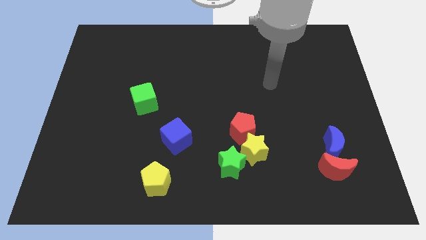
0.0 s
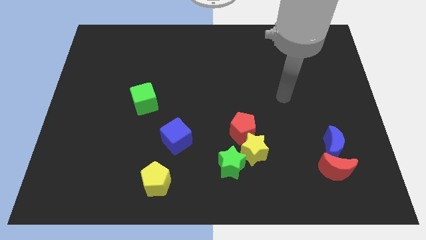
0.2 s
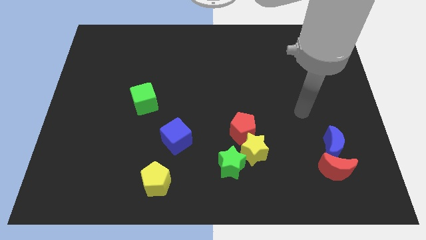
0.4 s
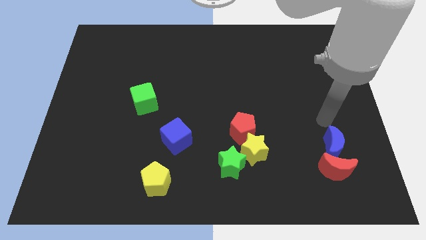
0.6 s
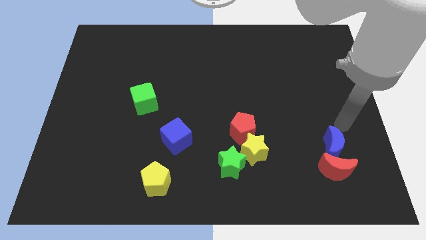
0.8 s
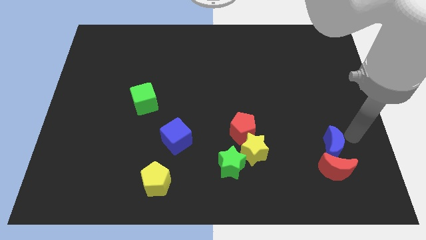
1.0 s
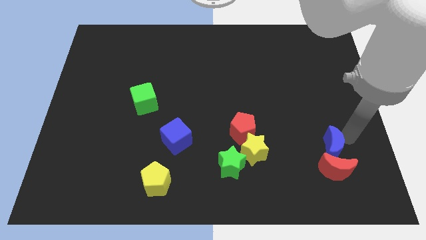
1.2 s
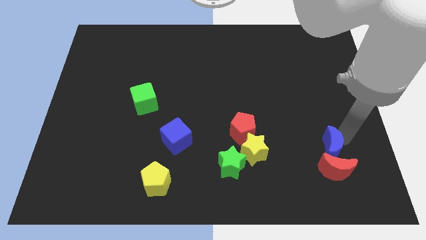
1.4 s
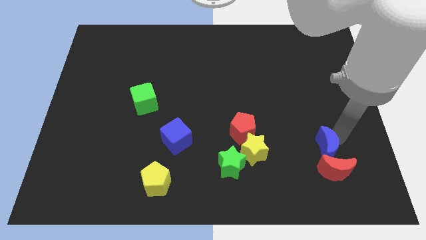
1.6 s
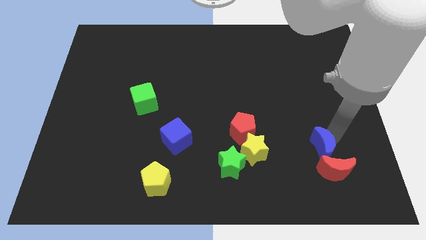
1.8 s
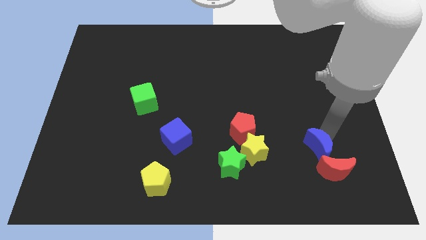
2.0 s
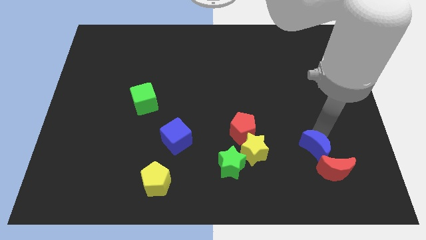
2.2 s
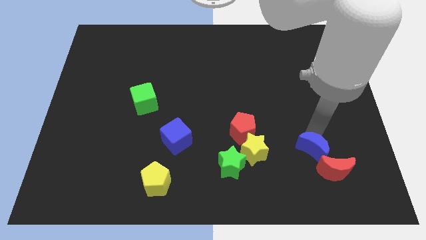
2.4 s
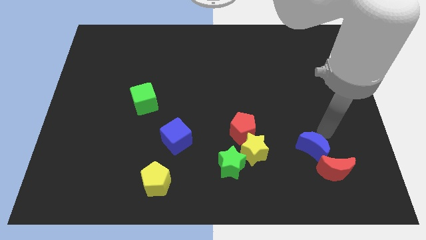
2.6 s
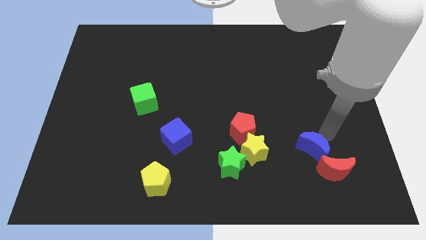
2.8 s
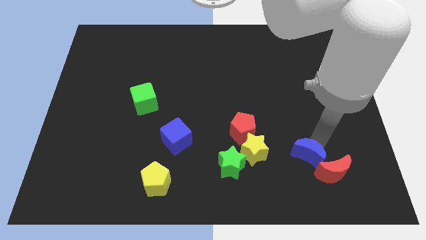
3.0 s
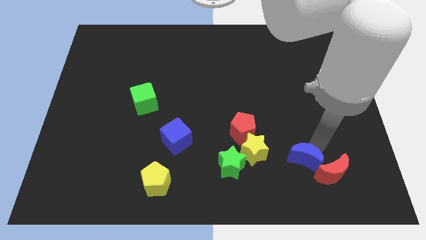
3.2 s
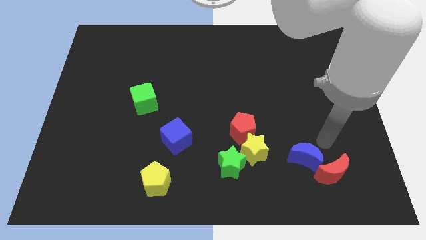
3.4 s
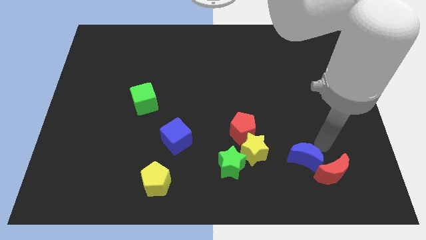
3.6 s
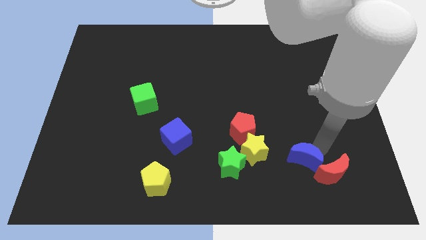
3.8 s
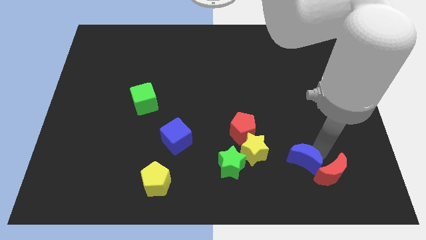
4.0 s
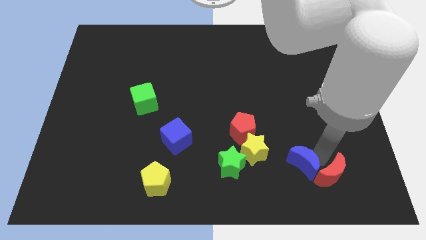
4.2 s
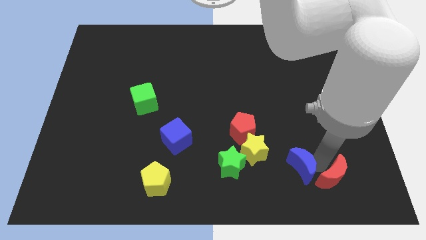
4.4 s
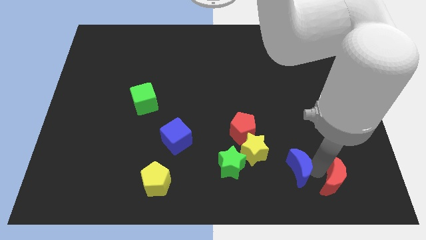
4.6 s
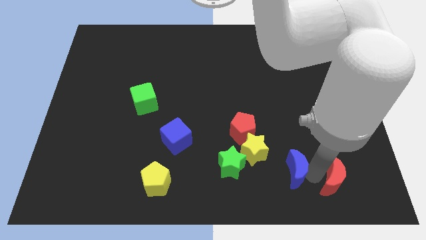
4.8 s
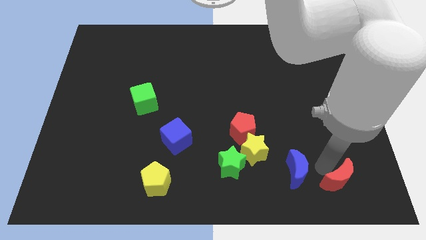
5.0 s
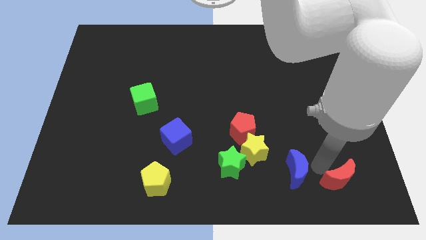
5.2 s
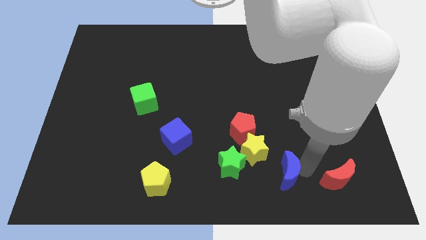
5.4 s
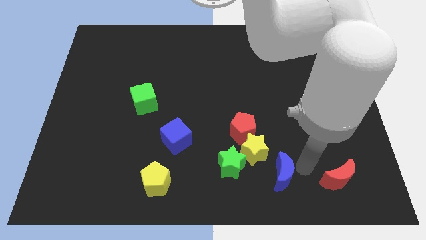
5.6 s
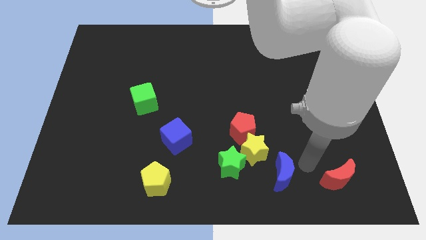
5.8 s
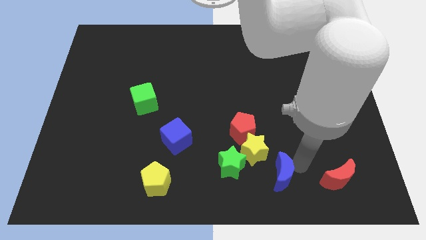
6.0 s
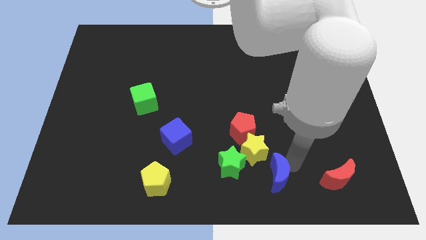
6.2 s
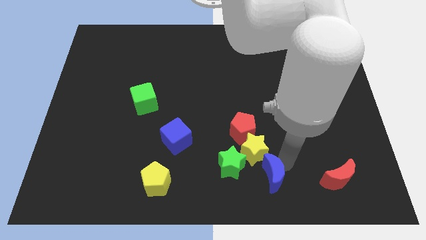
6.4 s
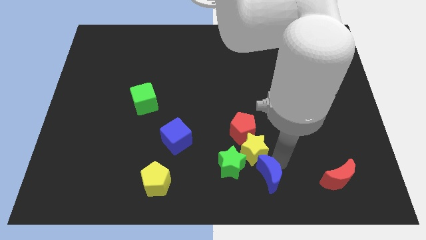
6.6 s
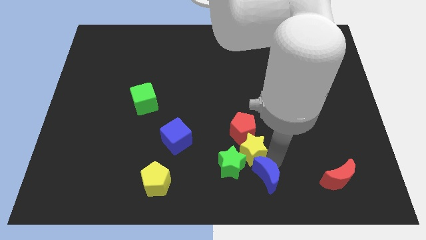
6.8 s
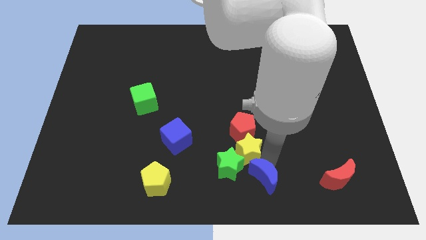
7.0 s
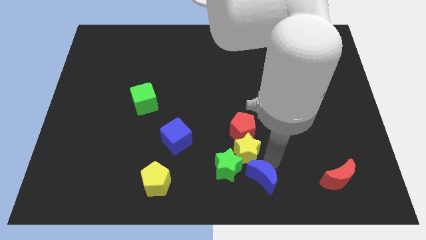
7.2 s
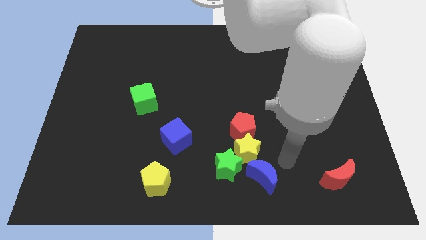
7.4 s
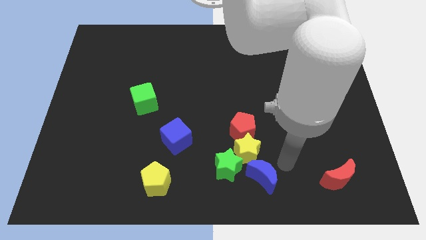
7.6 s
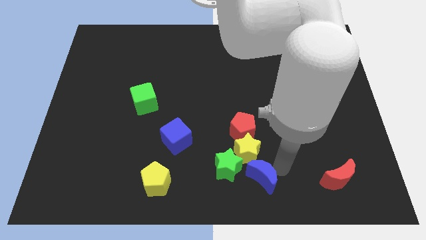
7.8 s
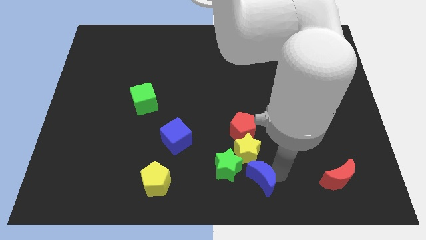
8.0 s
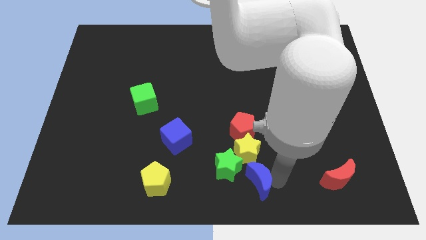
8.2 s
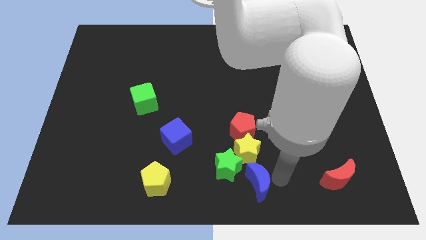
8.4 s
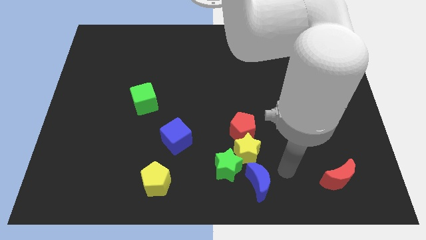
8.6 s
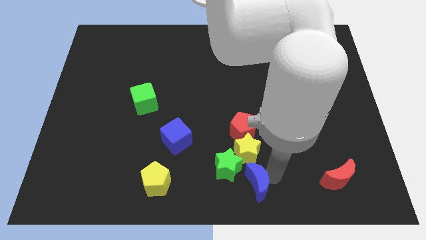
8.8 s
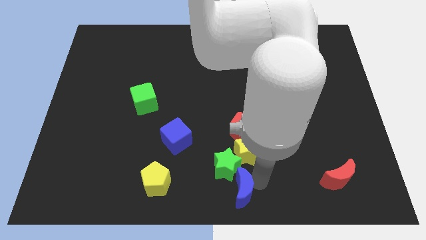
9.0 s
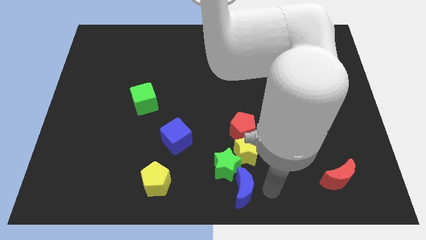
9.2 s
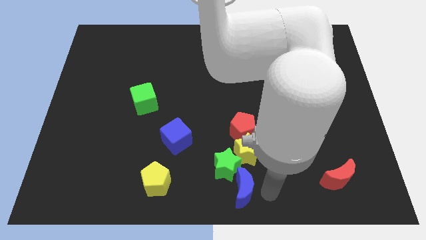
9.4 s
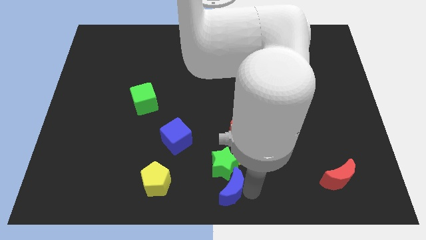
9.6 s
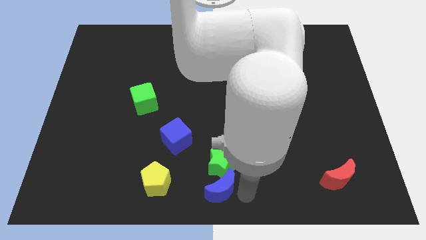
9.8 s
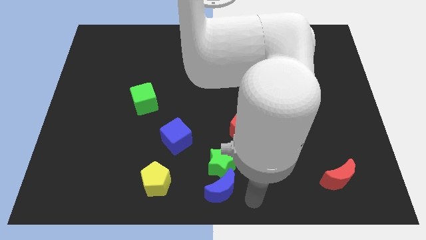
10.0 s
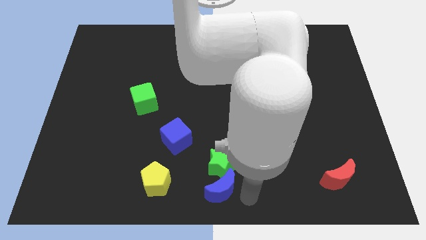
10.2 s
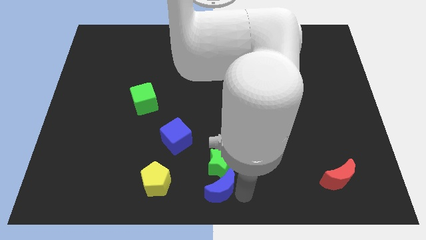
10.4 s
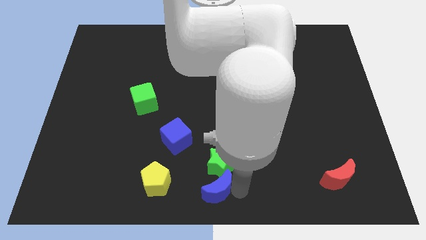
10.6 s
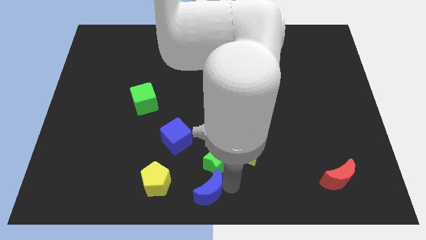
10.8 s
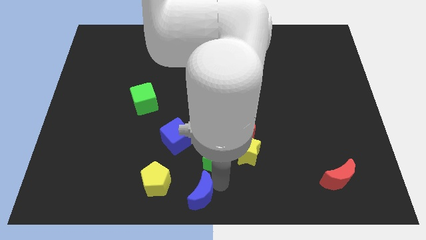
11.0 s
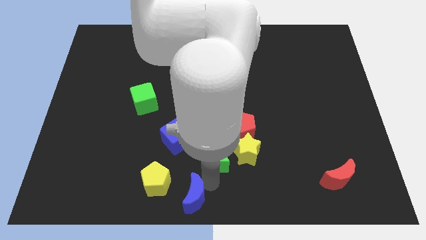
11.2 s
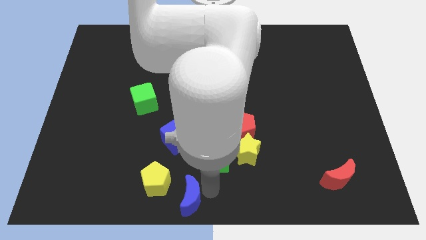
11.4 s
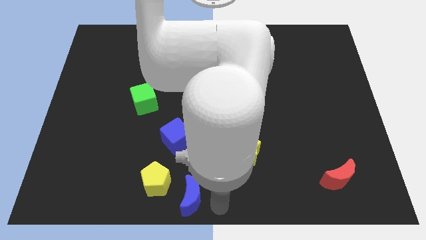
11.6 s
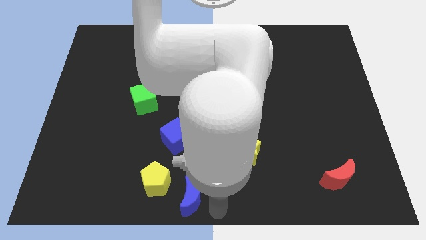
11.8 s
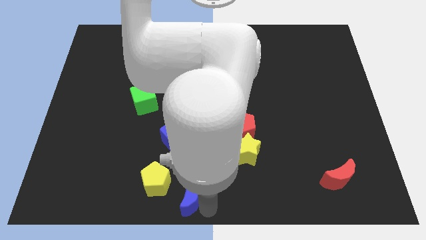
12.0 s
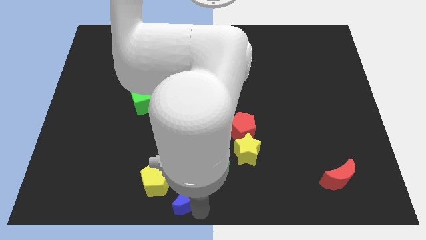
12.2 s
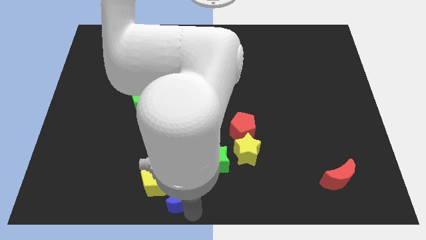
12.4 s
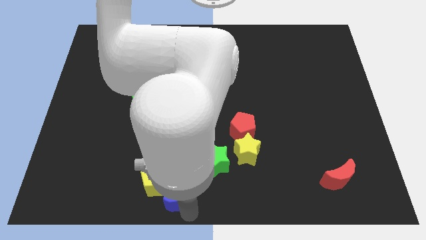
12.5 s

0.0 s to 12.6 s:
put the blue moon close to the yellow pentagon

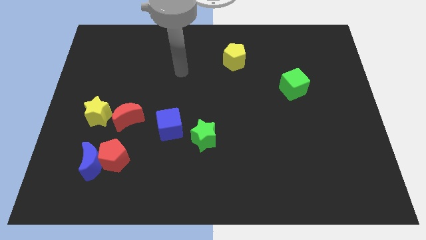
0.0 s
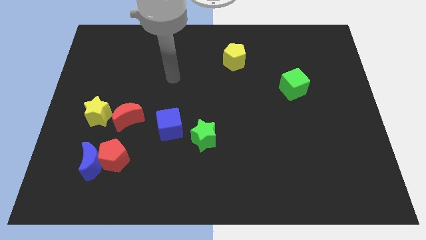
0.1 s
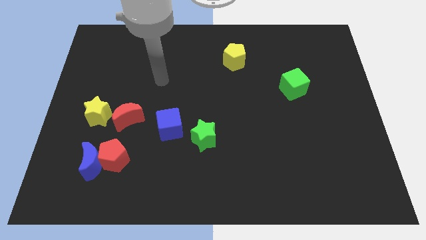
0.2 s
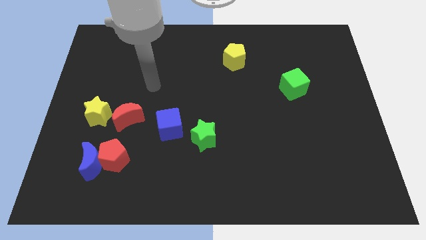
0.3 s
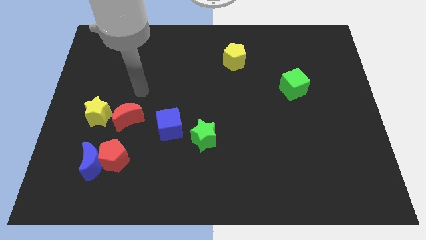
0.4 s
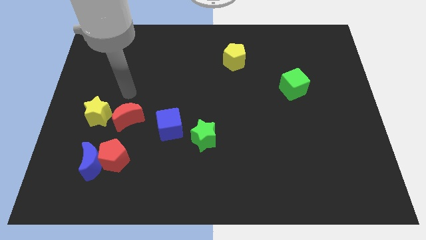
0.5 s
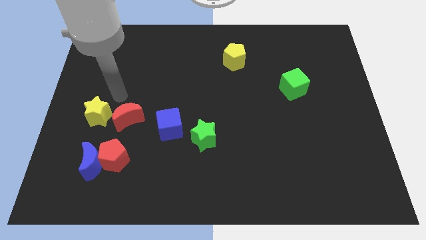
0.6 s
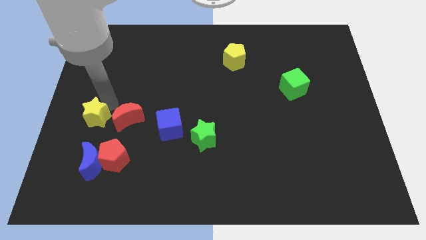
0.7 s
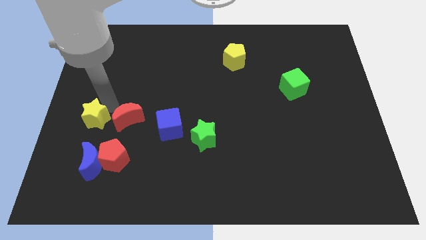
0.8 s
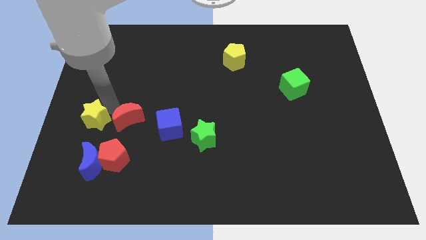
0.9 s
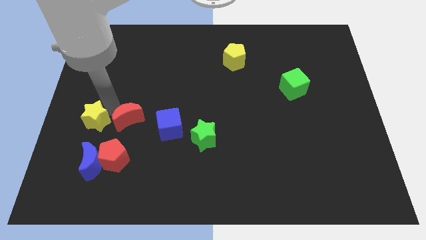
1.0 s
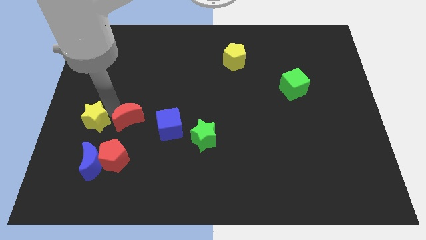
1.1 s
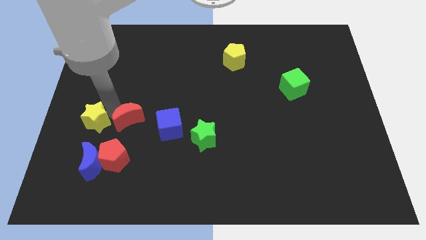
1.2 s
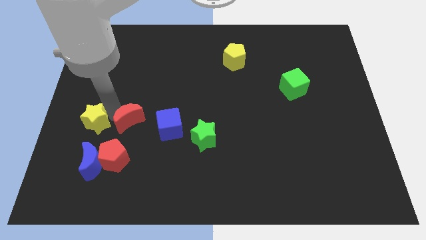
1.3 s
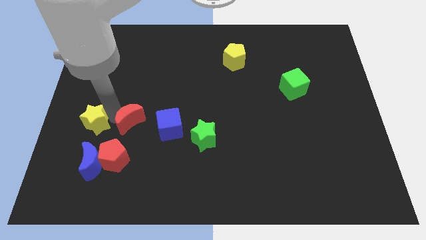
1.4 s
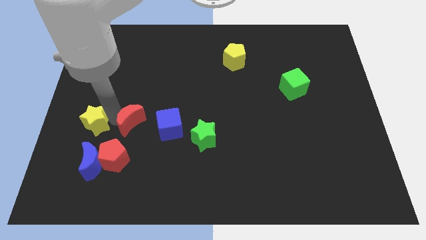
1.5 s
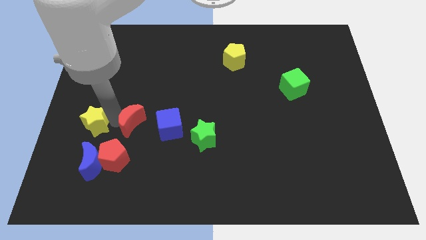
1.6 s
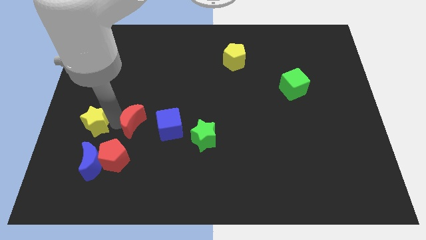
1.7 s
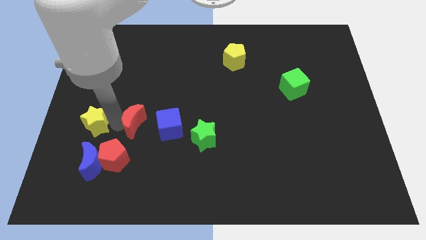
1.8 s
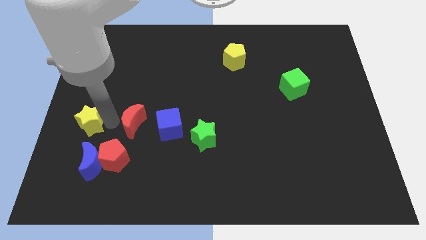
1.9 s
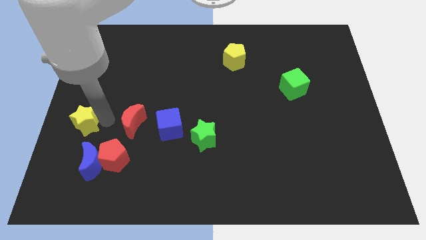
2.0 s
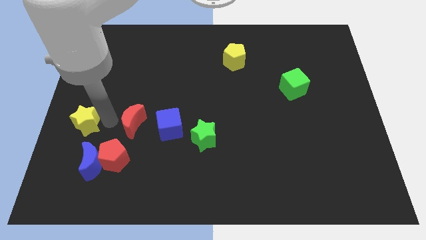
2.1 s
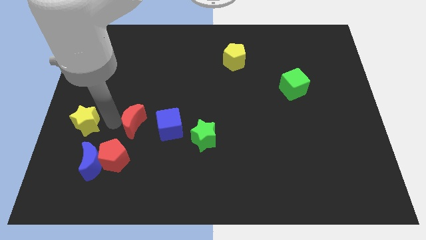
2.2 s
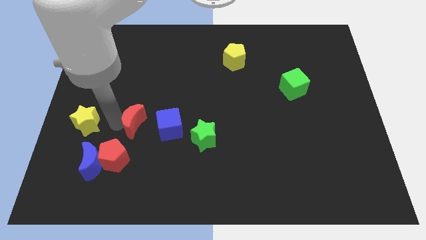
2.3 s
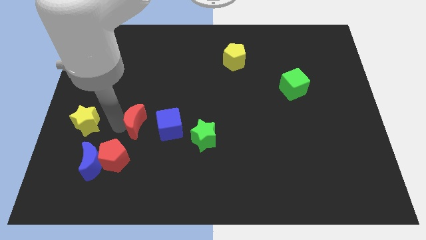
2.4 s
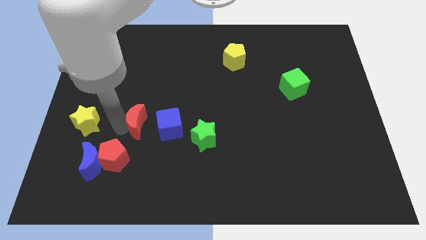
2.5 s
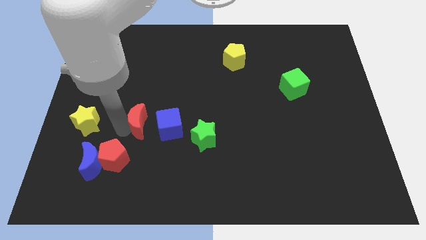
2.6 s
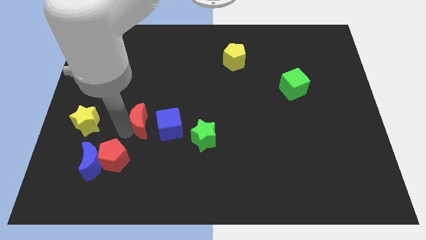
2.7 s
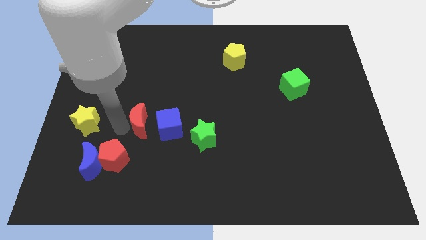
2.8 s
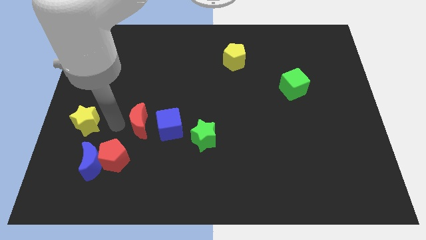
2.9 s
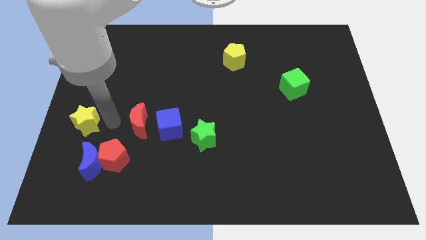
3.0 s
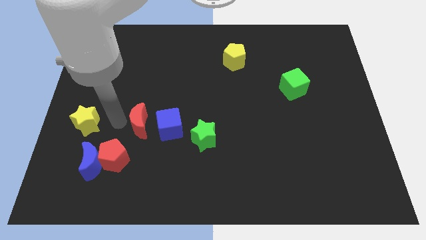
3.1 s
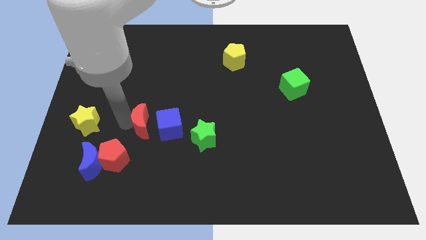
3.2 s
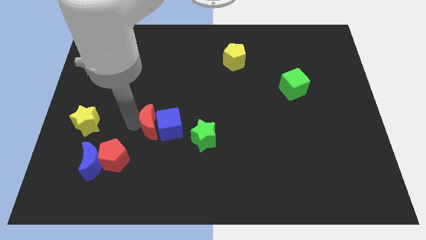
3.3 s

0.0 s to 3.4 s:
put the red moon next to the blue cube
